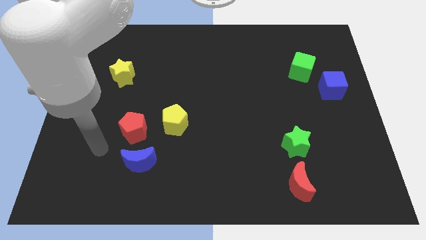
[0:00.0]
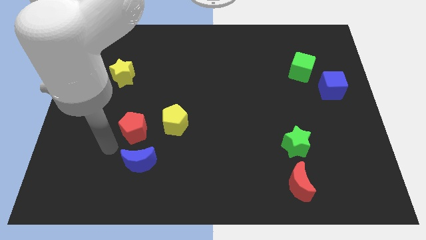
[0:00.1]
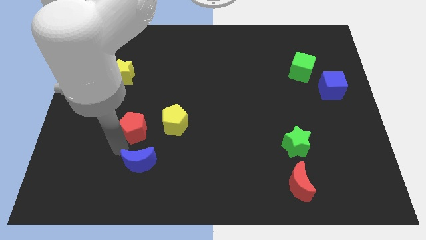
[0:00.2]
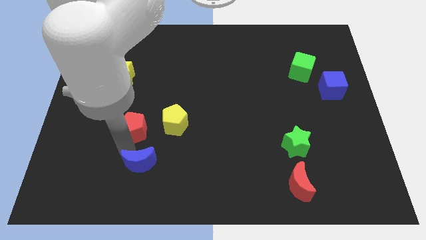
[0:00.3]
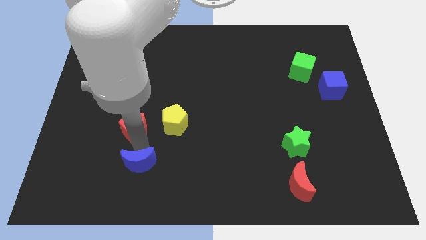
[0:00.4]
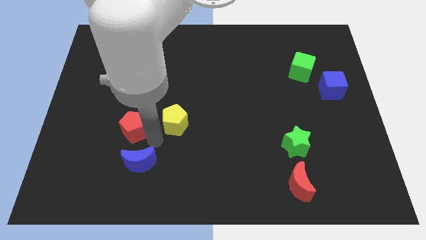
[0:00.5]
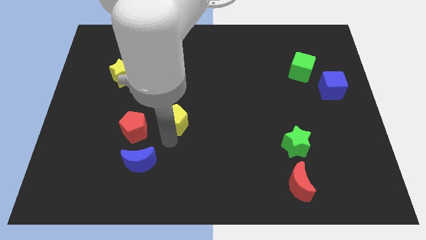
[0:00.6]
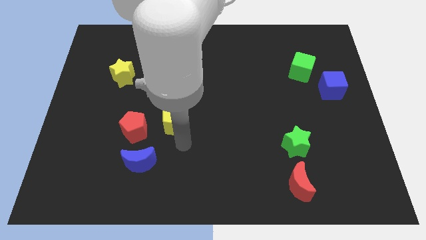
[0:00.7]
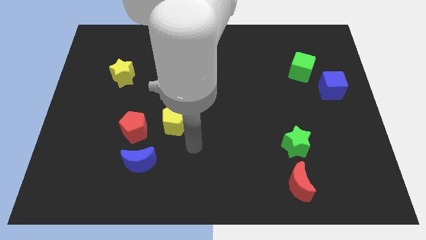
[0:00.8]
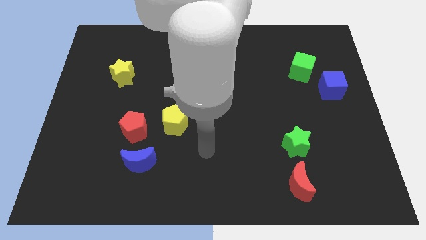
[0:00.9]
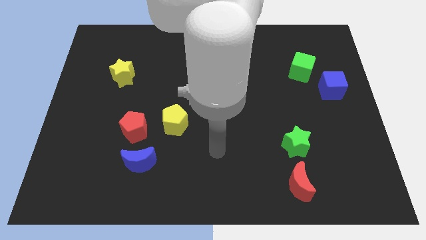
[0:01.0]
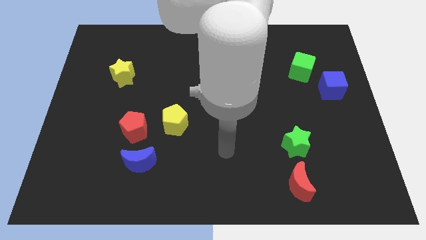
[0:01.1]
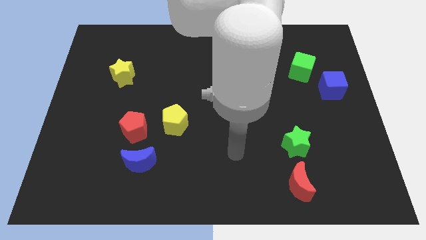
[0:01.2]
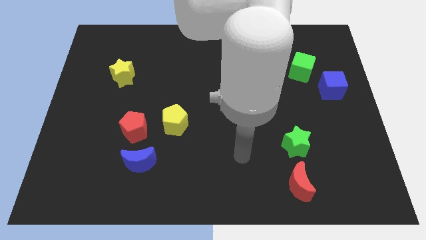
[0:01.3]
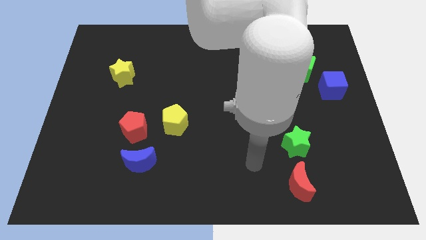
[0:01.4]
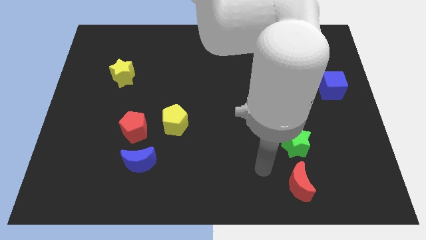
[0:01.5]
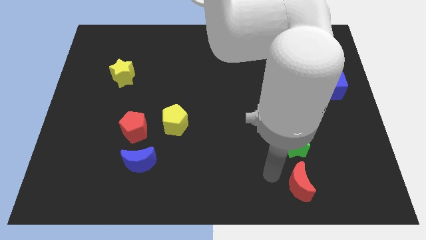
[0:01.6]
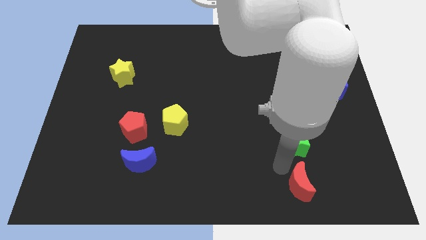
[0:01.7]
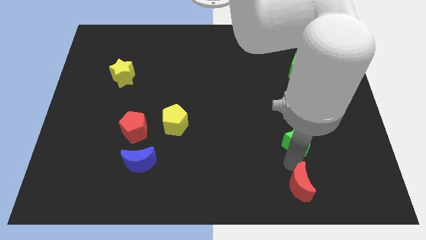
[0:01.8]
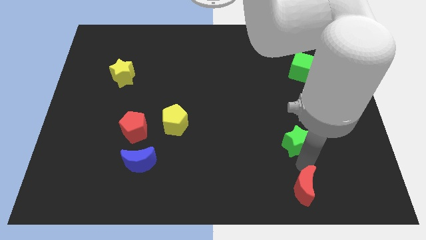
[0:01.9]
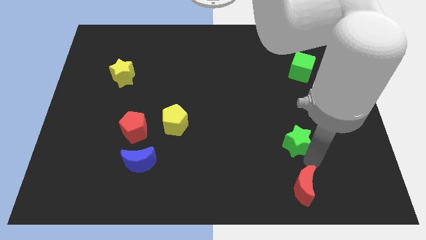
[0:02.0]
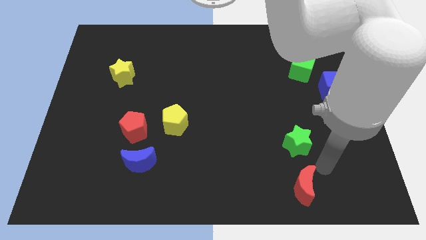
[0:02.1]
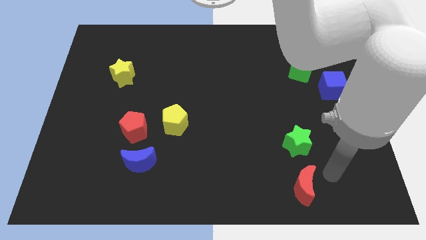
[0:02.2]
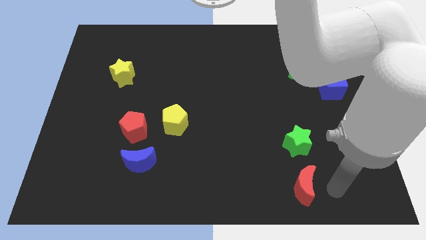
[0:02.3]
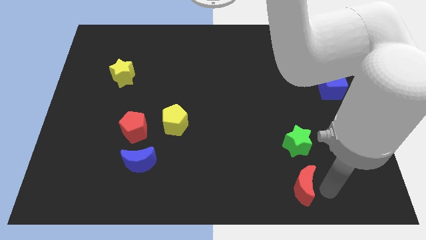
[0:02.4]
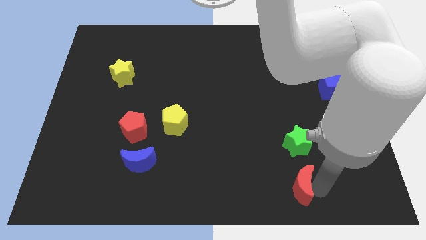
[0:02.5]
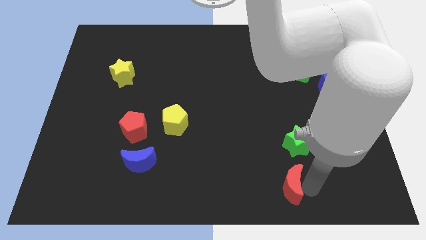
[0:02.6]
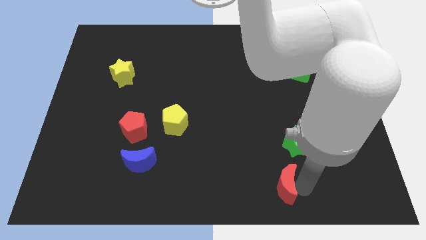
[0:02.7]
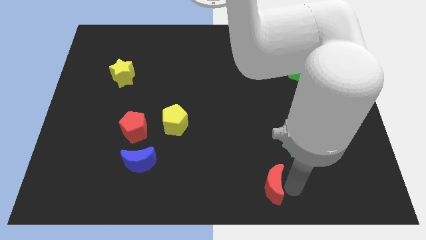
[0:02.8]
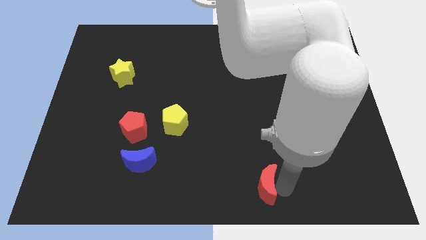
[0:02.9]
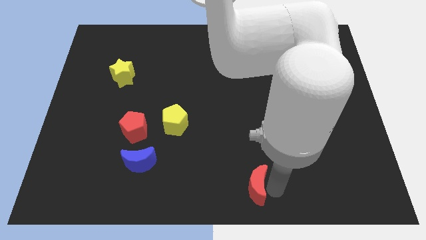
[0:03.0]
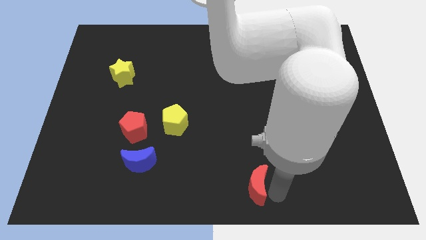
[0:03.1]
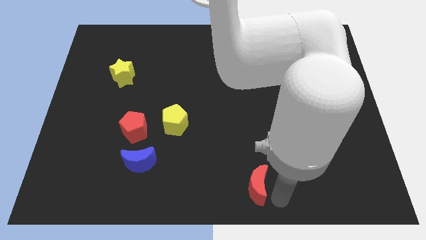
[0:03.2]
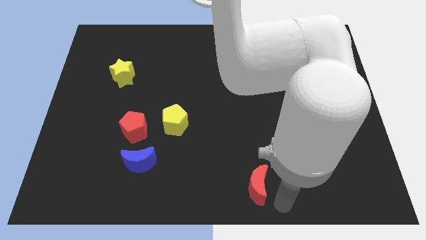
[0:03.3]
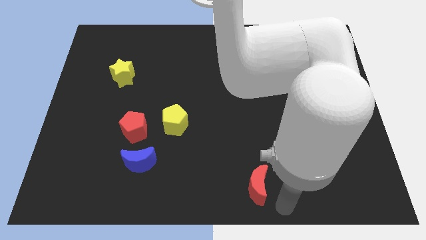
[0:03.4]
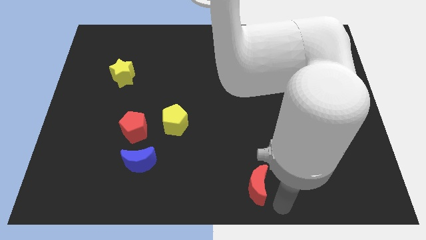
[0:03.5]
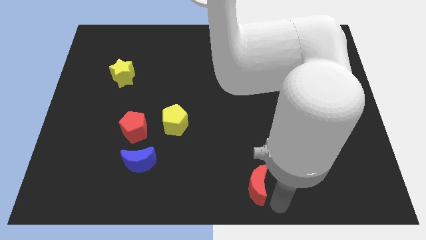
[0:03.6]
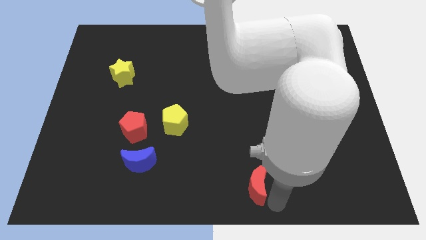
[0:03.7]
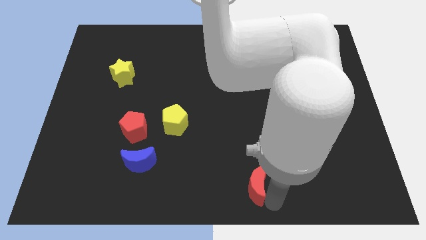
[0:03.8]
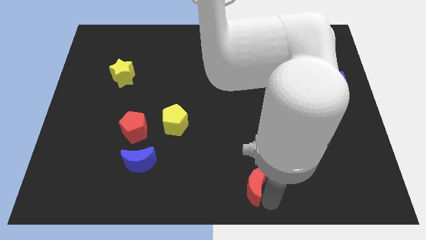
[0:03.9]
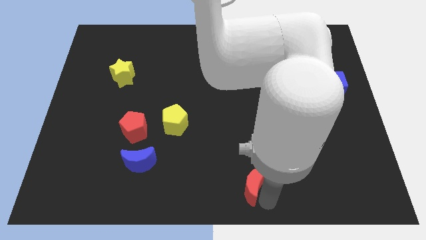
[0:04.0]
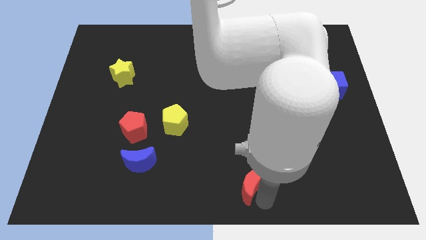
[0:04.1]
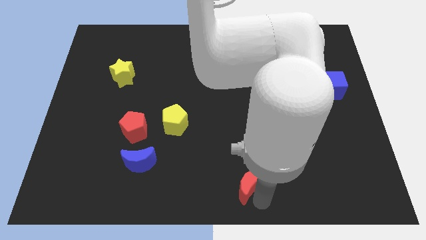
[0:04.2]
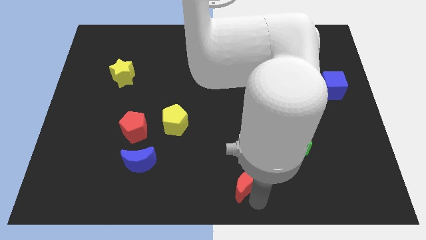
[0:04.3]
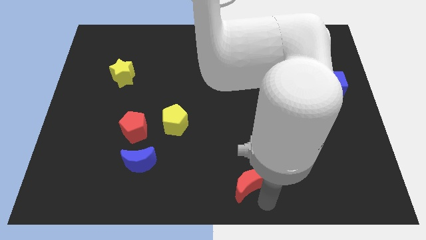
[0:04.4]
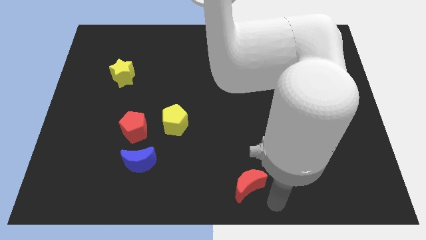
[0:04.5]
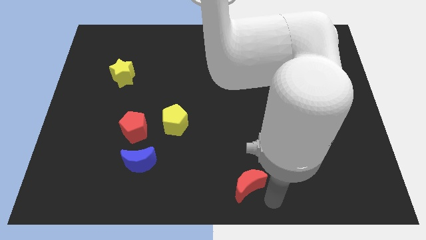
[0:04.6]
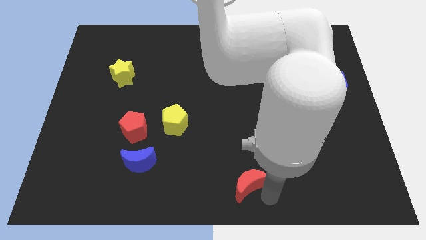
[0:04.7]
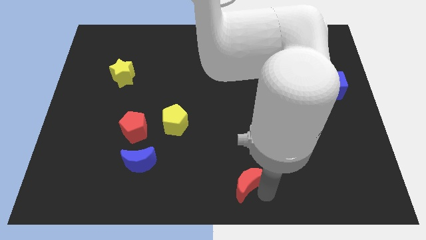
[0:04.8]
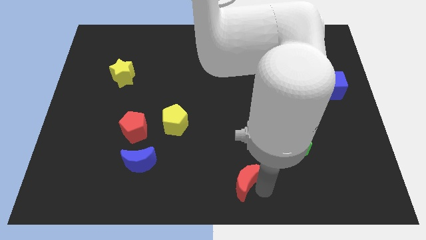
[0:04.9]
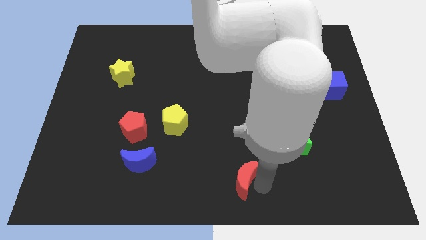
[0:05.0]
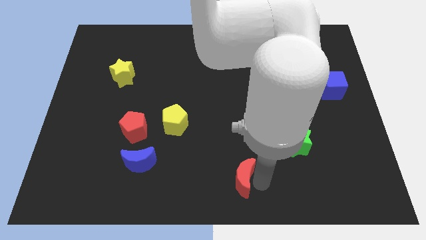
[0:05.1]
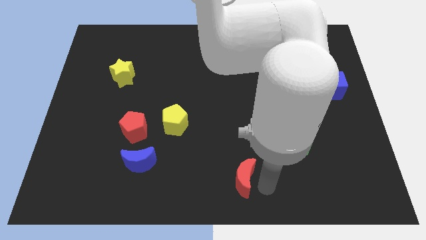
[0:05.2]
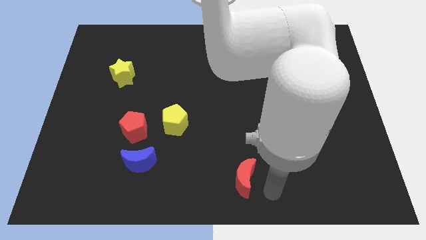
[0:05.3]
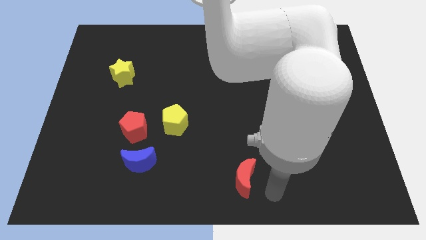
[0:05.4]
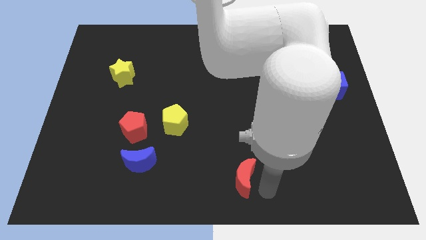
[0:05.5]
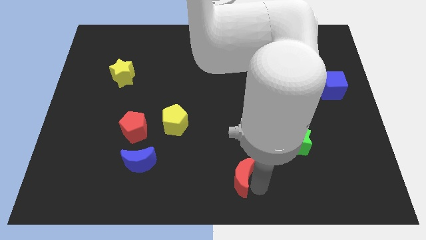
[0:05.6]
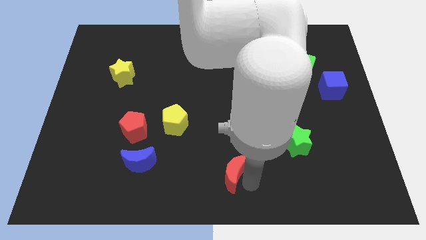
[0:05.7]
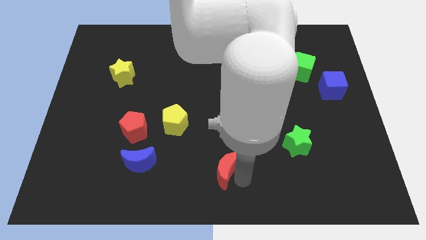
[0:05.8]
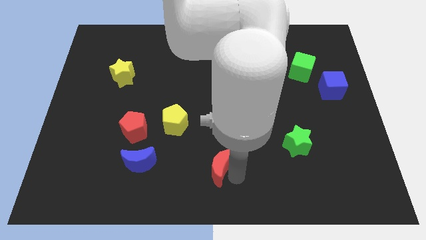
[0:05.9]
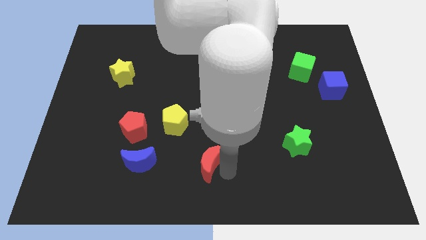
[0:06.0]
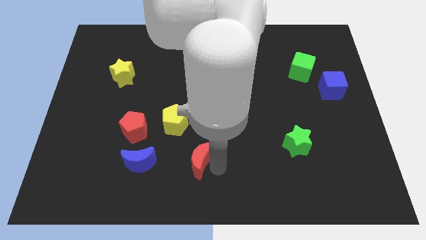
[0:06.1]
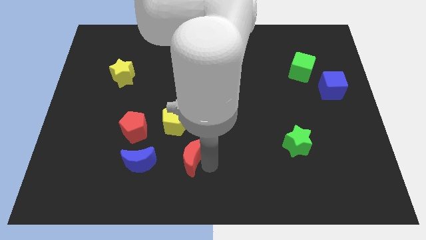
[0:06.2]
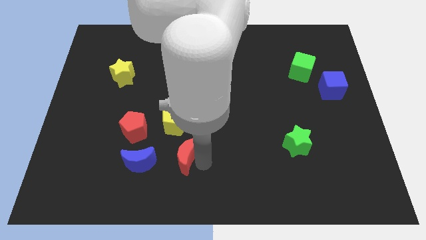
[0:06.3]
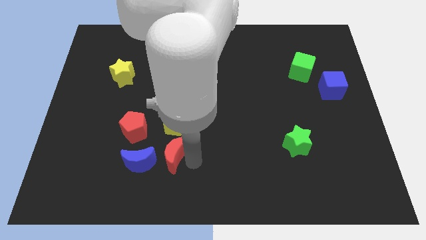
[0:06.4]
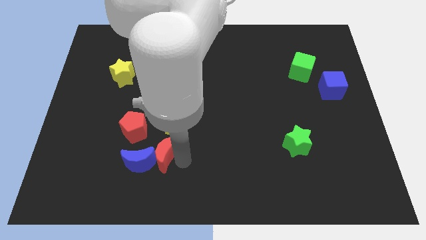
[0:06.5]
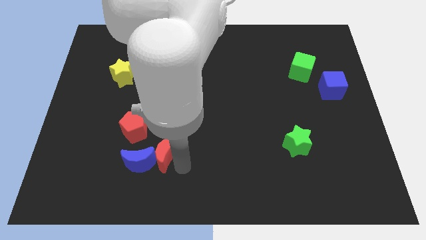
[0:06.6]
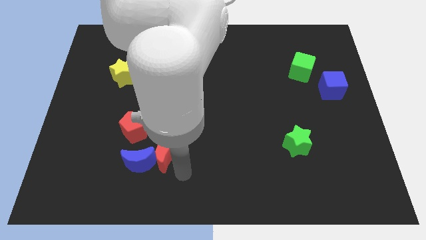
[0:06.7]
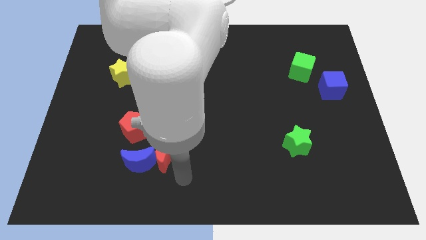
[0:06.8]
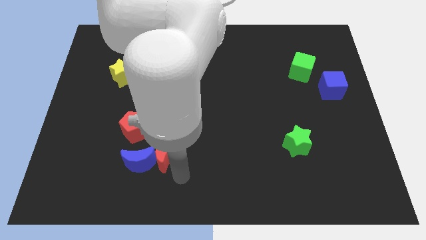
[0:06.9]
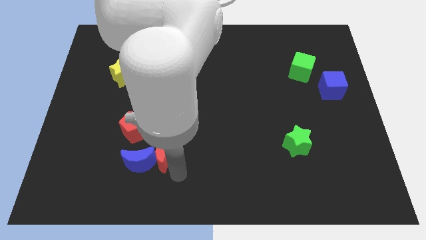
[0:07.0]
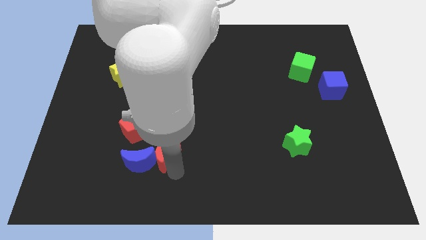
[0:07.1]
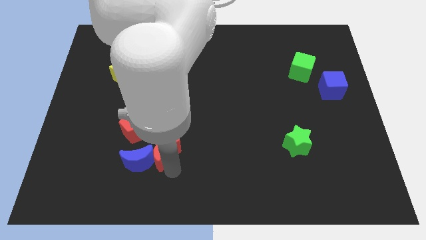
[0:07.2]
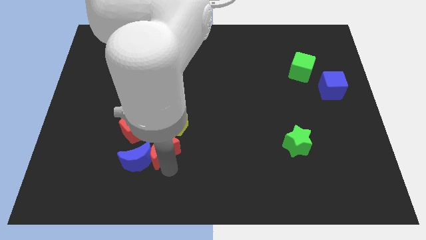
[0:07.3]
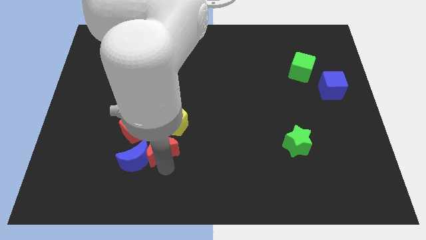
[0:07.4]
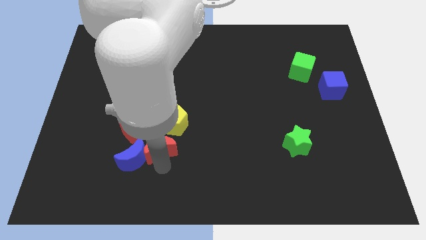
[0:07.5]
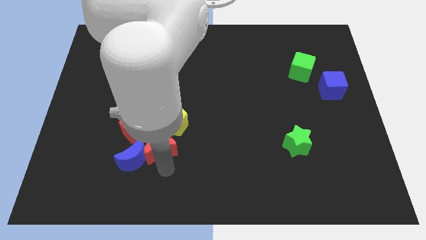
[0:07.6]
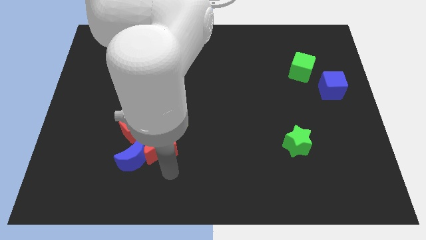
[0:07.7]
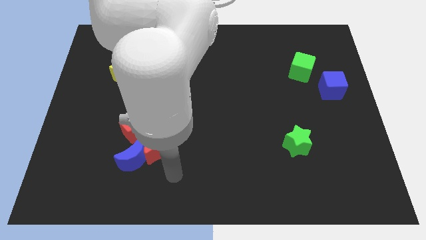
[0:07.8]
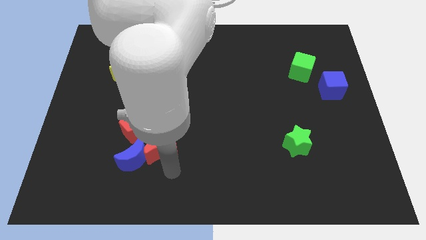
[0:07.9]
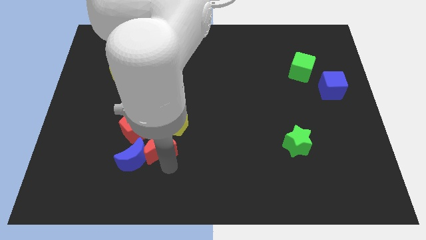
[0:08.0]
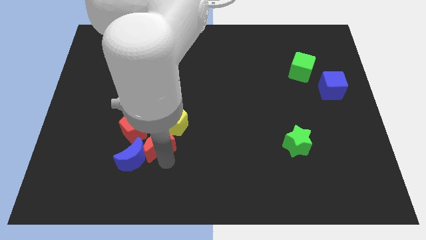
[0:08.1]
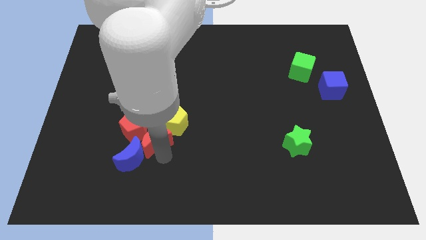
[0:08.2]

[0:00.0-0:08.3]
put the red moon to the red pentagon
